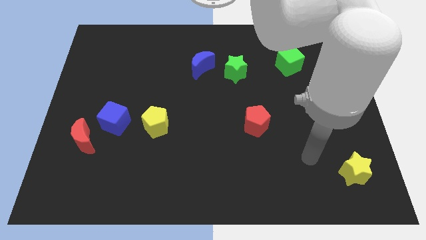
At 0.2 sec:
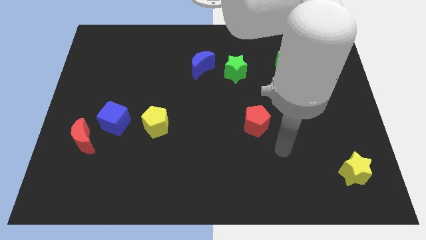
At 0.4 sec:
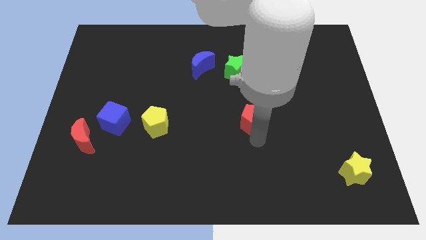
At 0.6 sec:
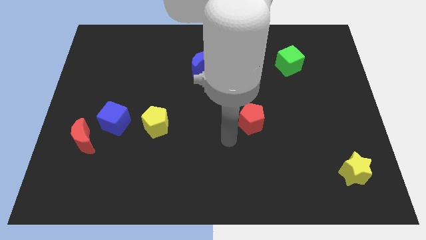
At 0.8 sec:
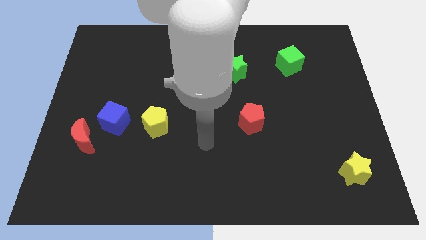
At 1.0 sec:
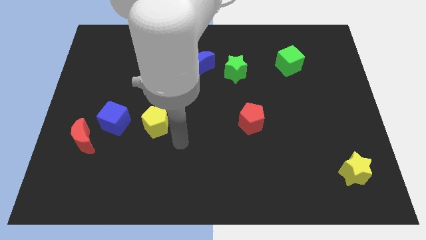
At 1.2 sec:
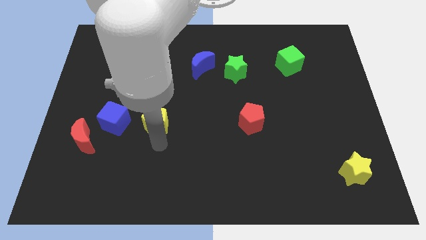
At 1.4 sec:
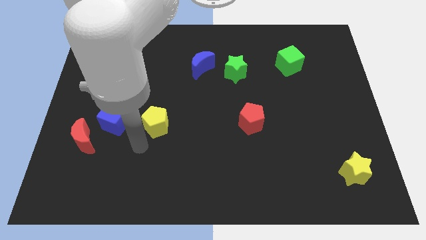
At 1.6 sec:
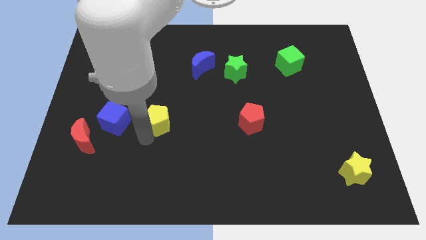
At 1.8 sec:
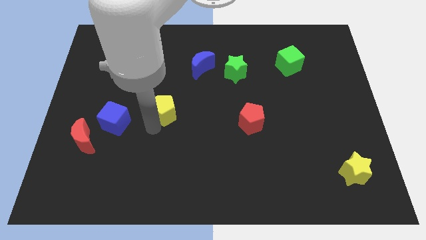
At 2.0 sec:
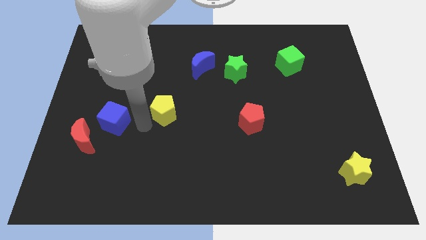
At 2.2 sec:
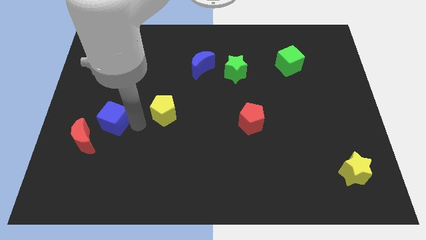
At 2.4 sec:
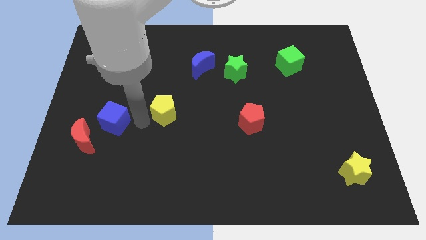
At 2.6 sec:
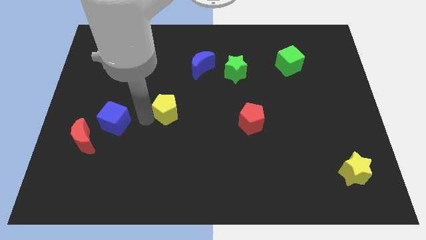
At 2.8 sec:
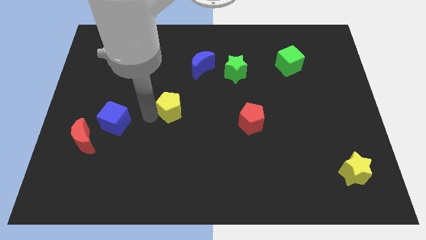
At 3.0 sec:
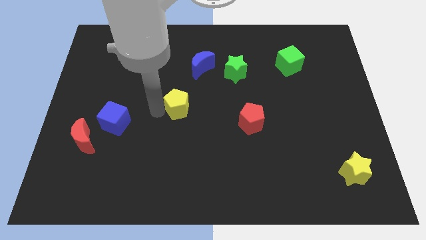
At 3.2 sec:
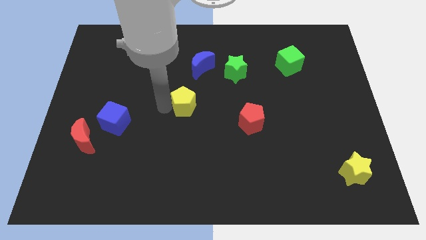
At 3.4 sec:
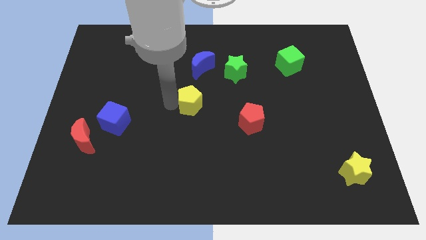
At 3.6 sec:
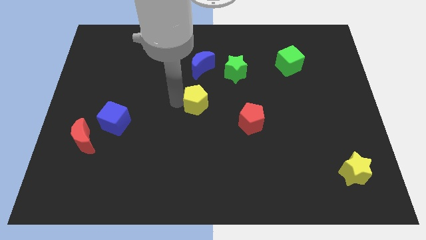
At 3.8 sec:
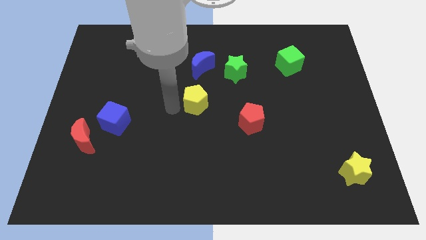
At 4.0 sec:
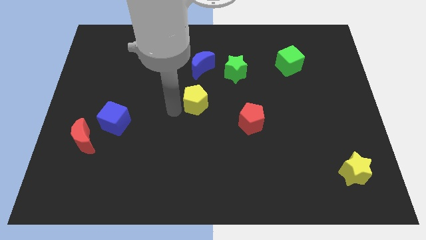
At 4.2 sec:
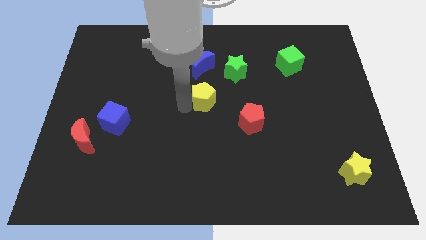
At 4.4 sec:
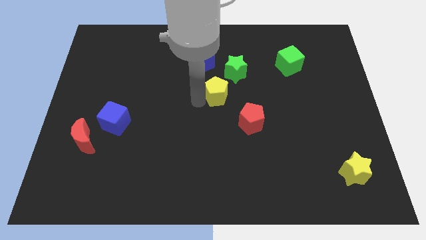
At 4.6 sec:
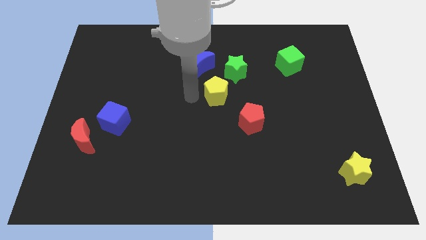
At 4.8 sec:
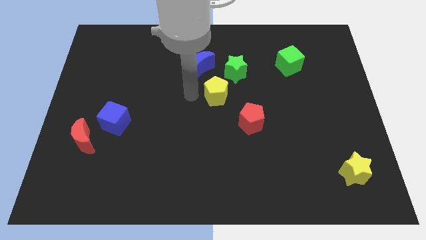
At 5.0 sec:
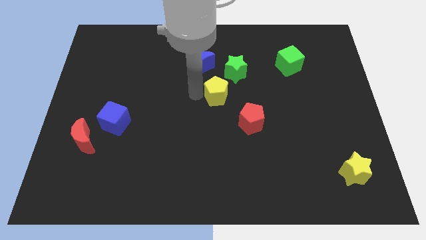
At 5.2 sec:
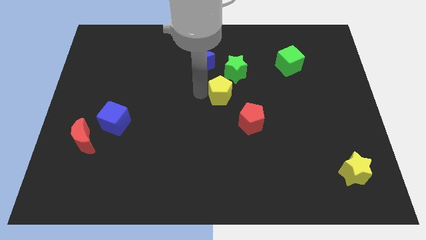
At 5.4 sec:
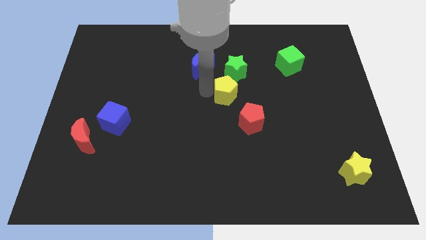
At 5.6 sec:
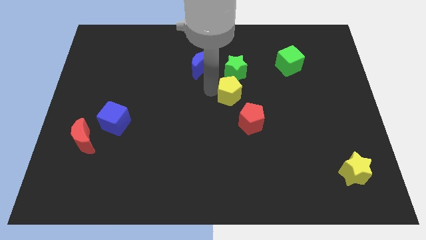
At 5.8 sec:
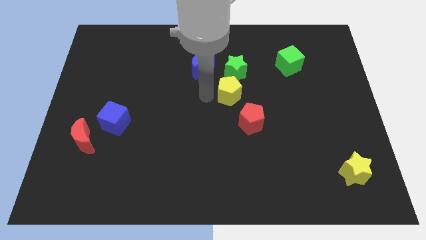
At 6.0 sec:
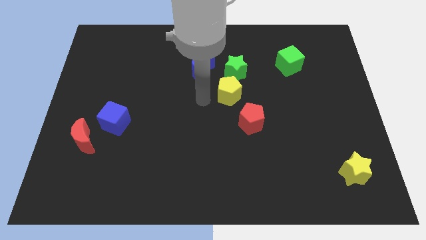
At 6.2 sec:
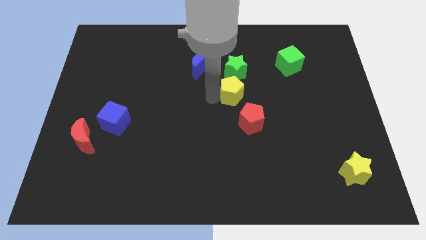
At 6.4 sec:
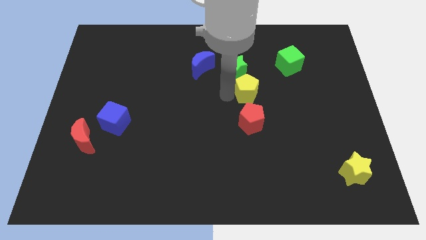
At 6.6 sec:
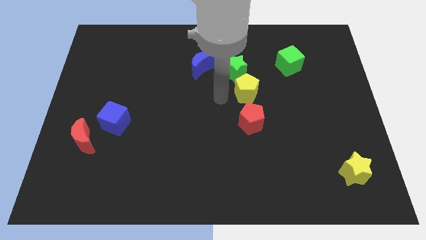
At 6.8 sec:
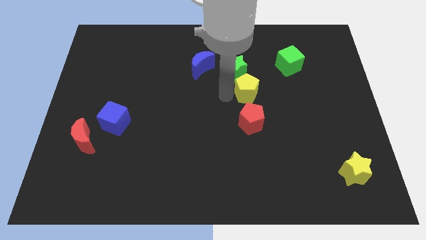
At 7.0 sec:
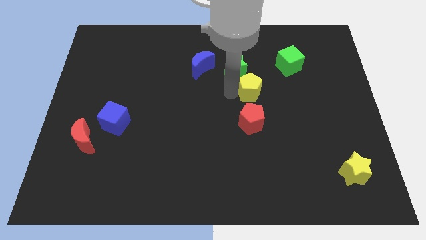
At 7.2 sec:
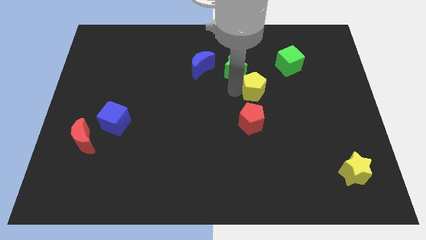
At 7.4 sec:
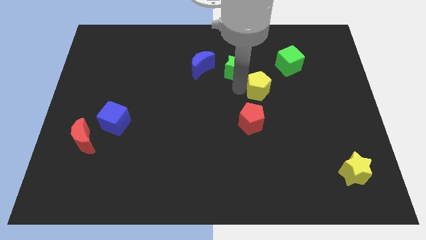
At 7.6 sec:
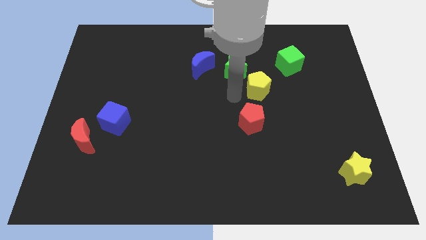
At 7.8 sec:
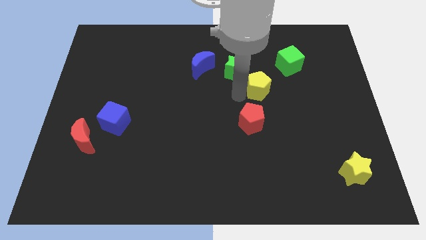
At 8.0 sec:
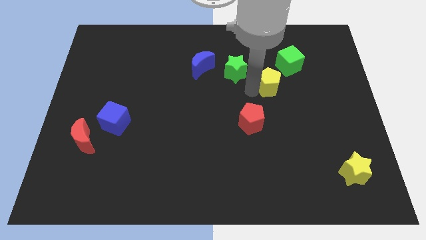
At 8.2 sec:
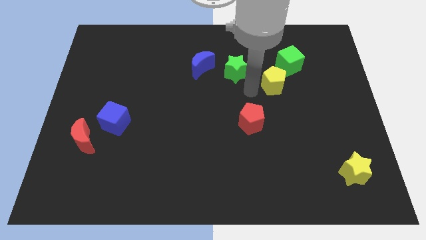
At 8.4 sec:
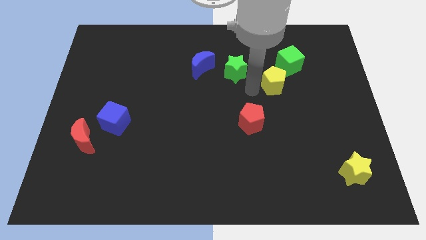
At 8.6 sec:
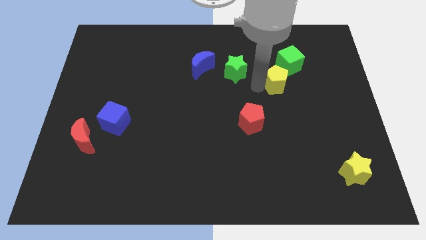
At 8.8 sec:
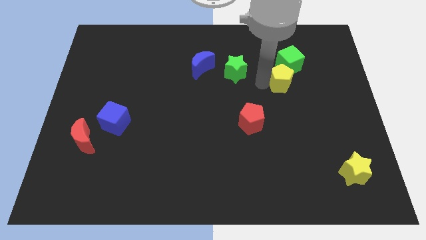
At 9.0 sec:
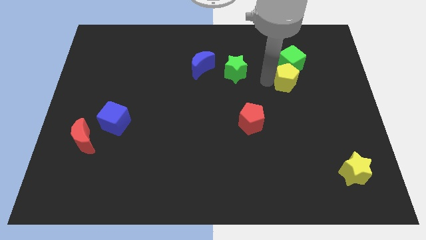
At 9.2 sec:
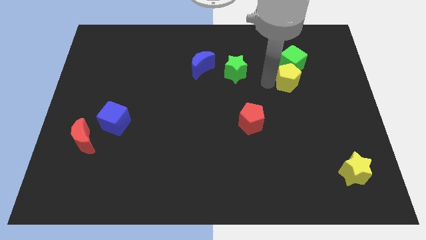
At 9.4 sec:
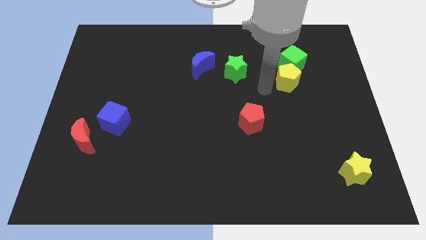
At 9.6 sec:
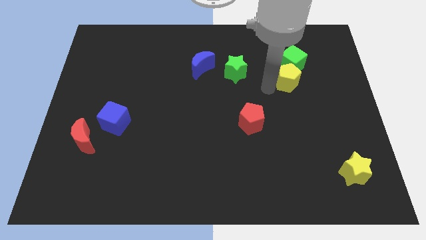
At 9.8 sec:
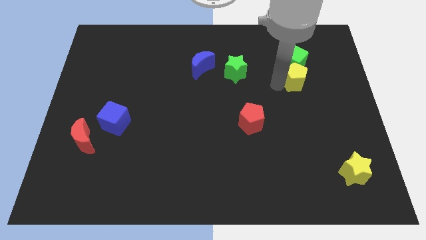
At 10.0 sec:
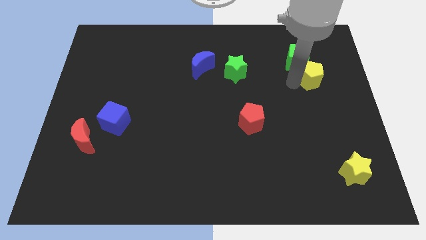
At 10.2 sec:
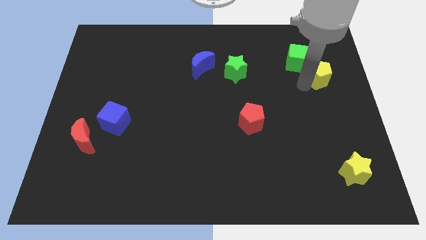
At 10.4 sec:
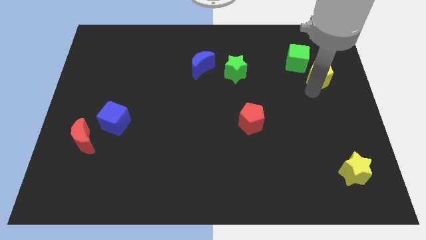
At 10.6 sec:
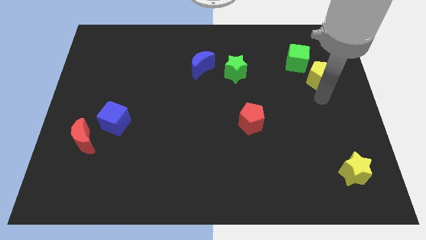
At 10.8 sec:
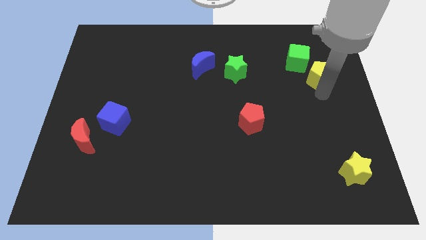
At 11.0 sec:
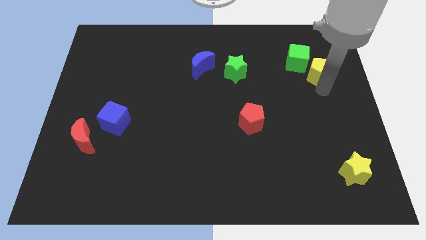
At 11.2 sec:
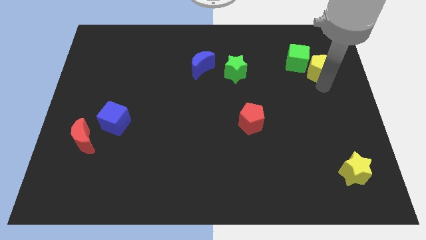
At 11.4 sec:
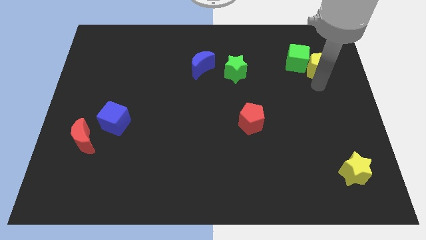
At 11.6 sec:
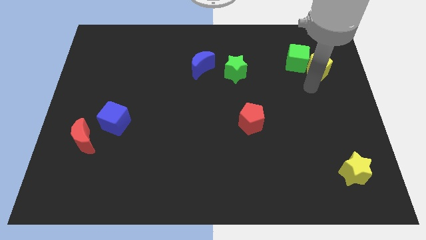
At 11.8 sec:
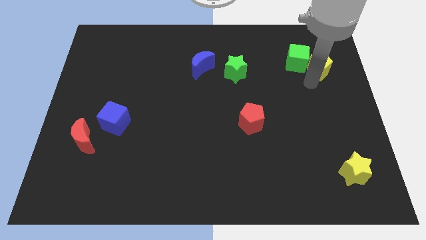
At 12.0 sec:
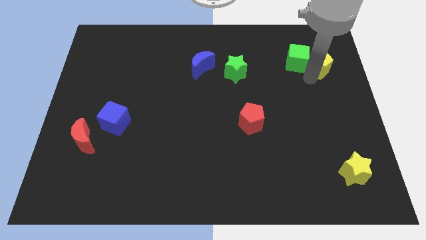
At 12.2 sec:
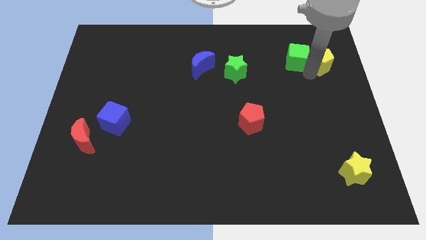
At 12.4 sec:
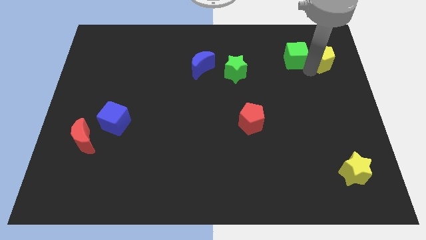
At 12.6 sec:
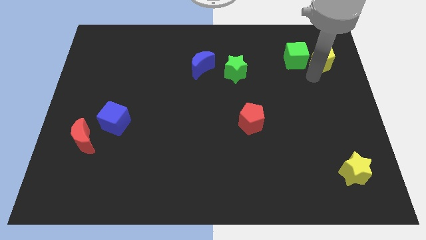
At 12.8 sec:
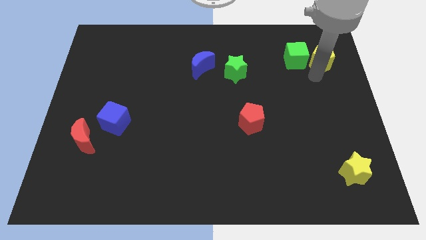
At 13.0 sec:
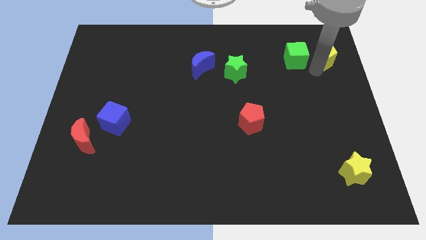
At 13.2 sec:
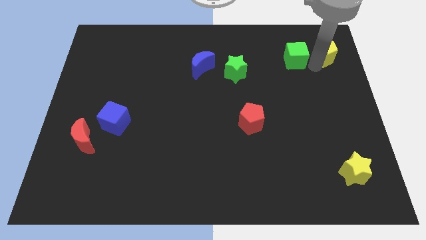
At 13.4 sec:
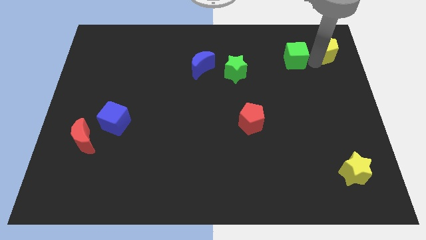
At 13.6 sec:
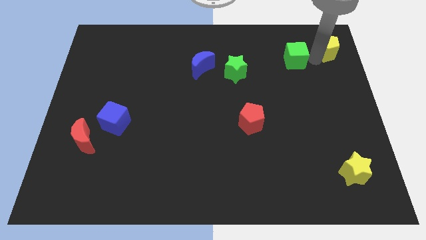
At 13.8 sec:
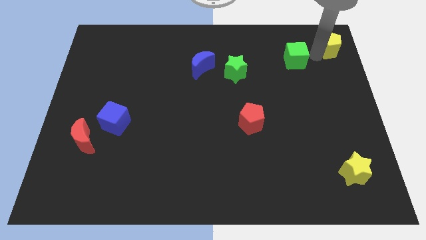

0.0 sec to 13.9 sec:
push the yellow pentagon to the top right
